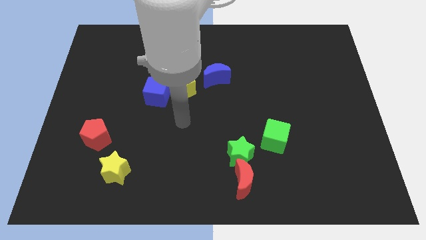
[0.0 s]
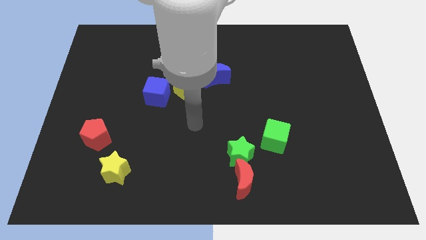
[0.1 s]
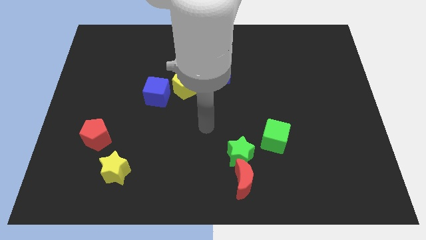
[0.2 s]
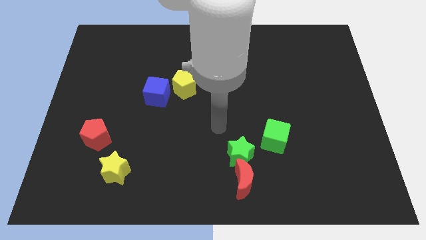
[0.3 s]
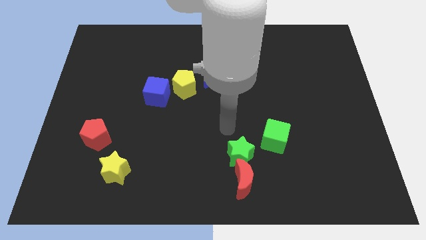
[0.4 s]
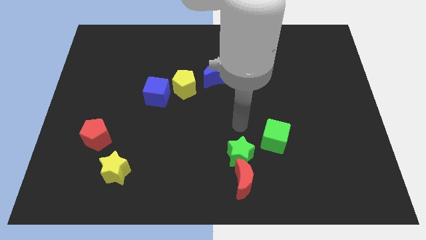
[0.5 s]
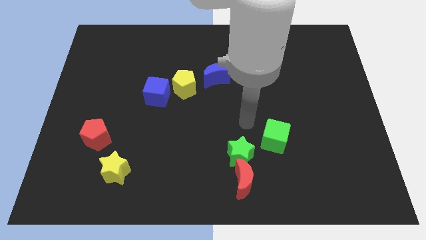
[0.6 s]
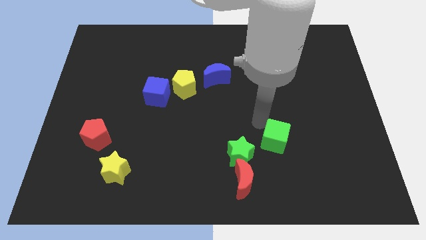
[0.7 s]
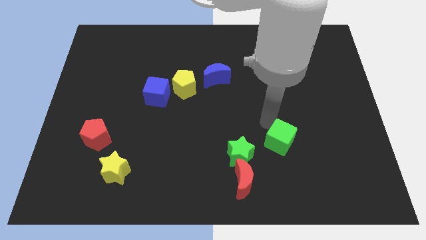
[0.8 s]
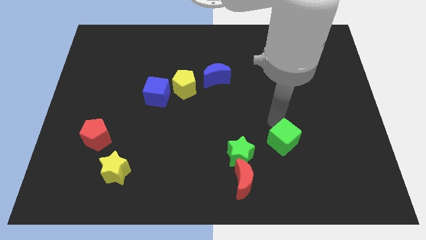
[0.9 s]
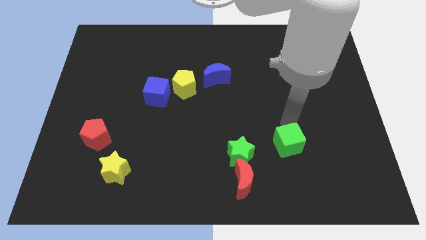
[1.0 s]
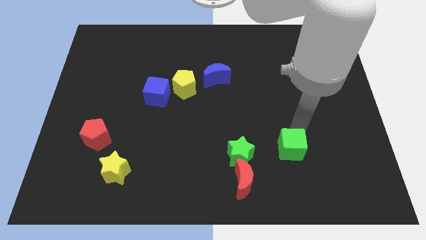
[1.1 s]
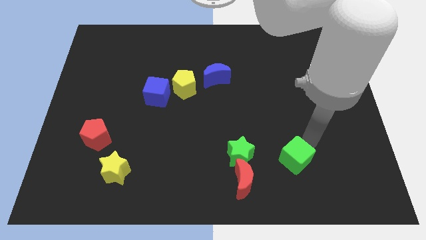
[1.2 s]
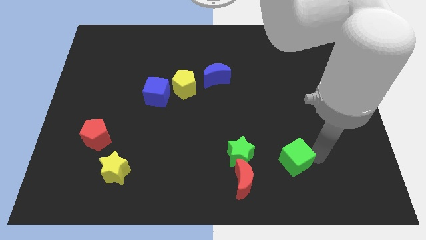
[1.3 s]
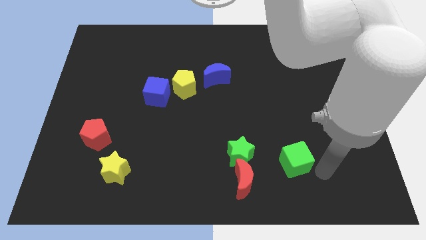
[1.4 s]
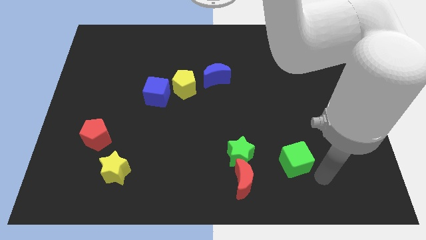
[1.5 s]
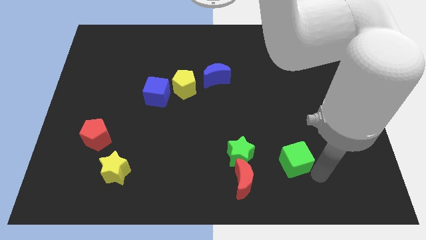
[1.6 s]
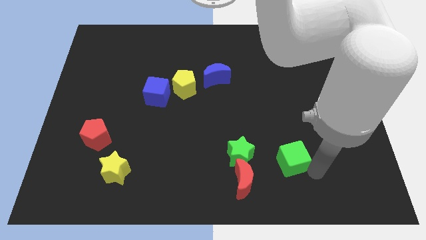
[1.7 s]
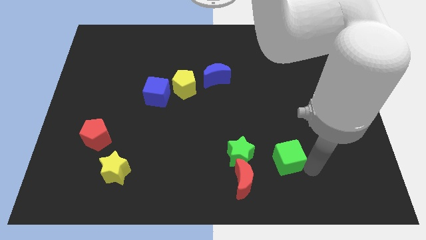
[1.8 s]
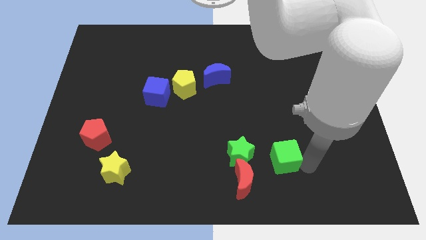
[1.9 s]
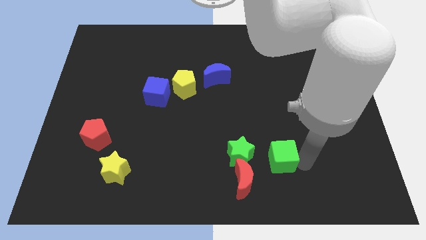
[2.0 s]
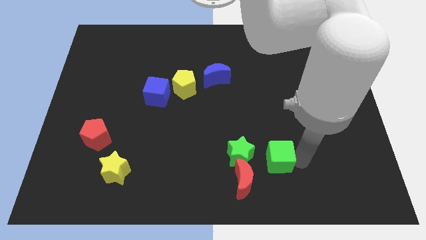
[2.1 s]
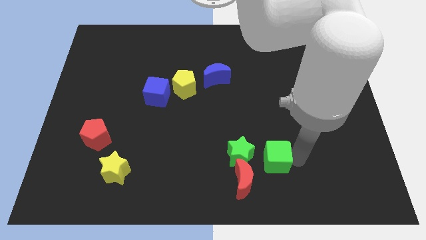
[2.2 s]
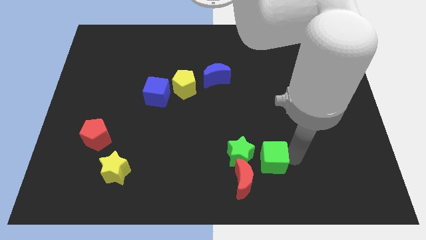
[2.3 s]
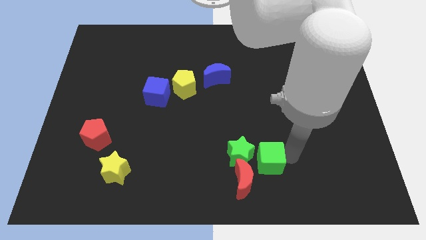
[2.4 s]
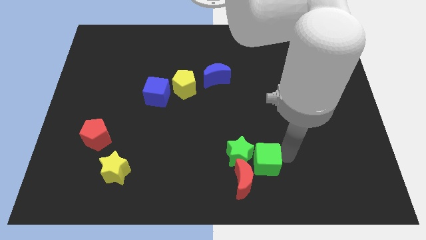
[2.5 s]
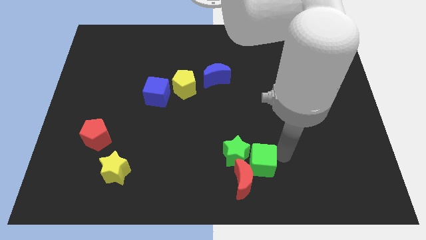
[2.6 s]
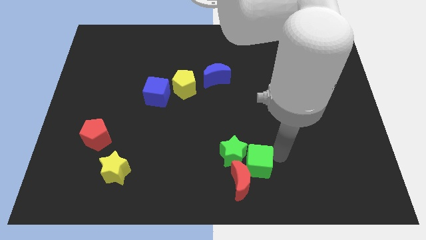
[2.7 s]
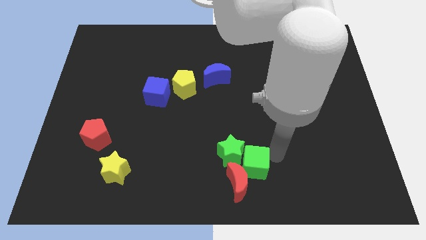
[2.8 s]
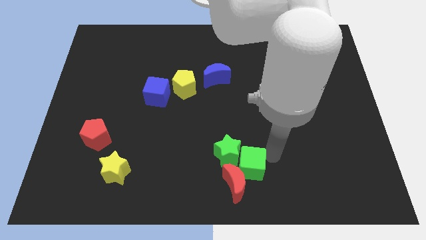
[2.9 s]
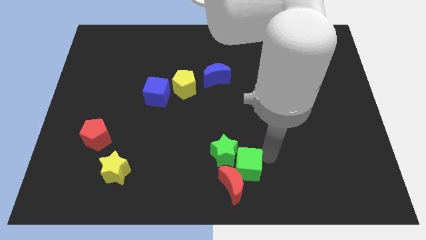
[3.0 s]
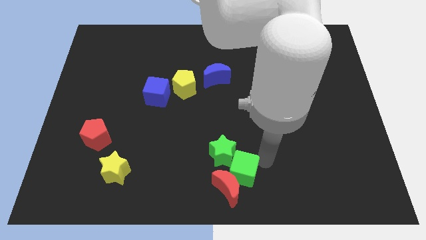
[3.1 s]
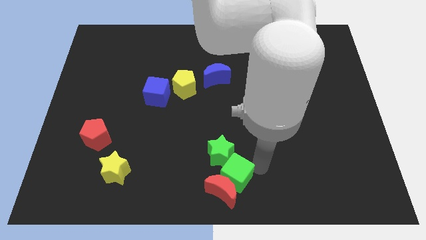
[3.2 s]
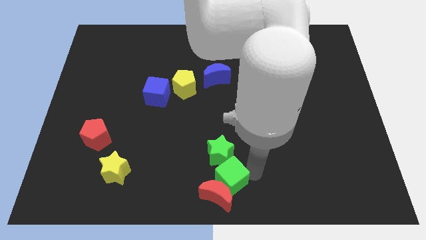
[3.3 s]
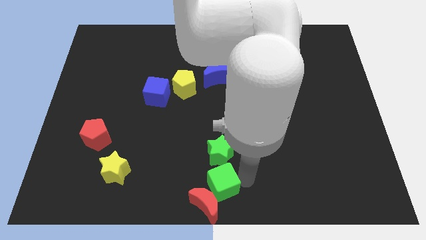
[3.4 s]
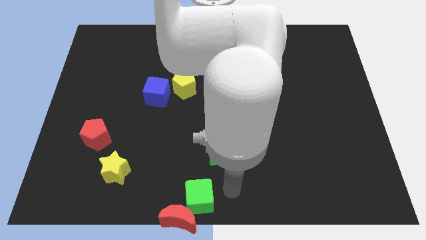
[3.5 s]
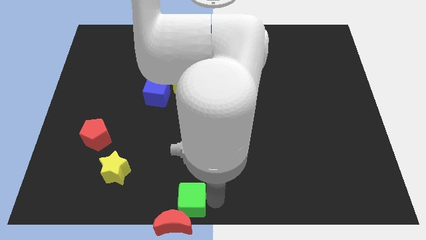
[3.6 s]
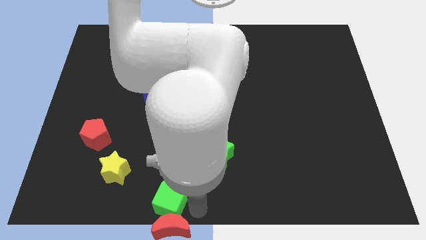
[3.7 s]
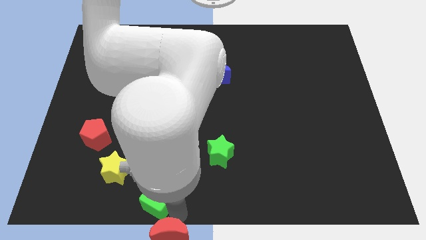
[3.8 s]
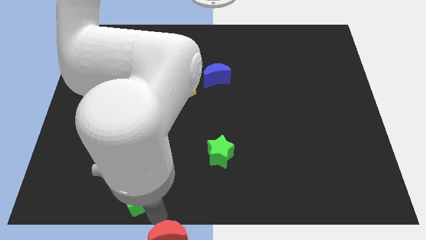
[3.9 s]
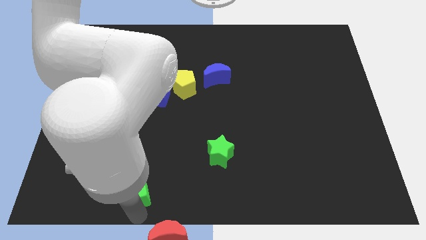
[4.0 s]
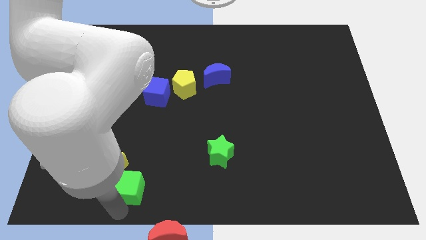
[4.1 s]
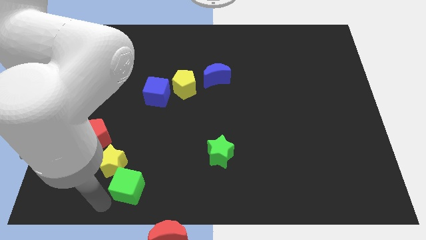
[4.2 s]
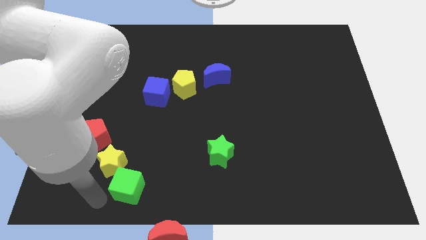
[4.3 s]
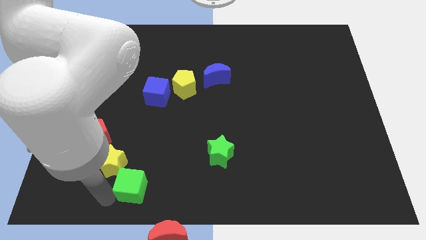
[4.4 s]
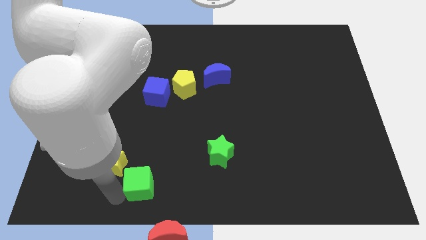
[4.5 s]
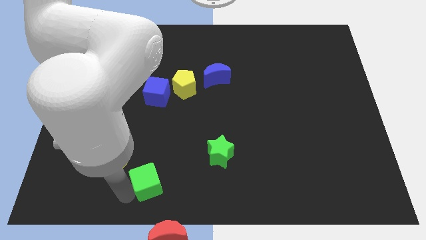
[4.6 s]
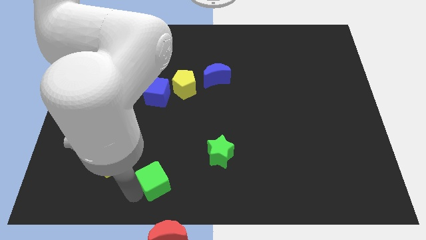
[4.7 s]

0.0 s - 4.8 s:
slightly push the green cube to the left

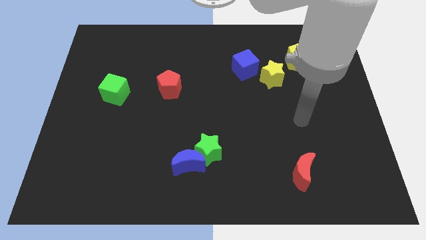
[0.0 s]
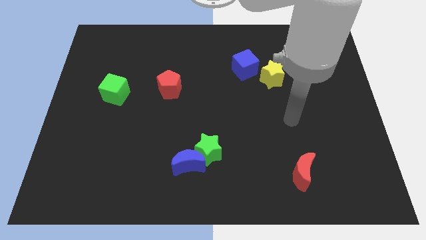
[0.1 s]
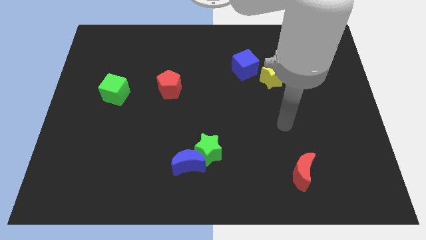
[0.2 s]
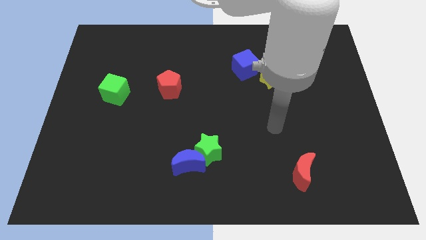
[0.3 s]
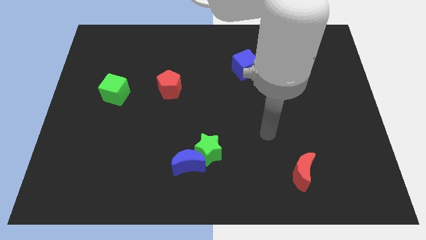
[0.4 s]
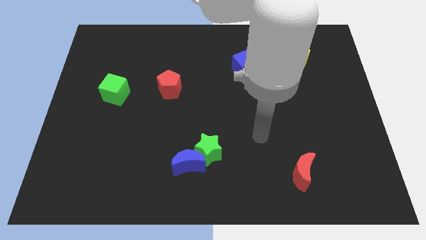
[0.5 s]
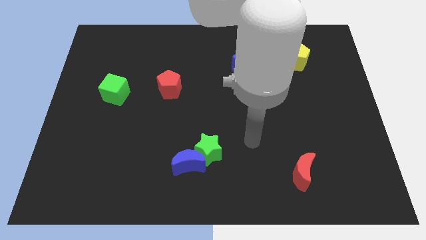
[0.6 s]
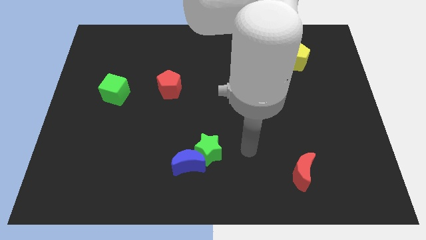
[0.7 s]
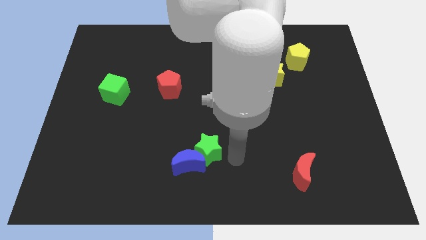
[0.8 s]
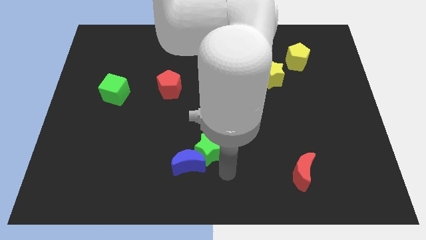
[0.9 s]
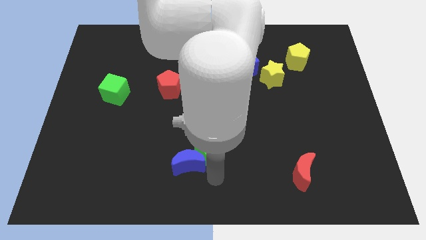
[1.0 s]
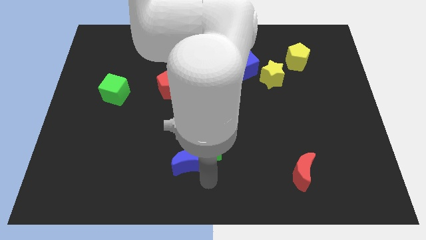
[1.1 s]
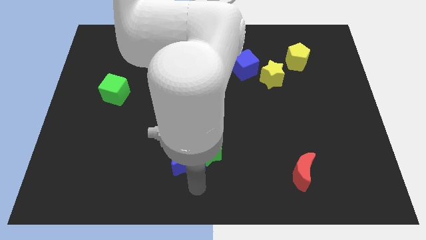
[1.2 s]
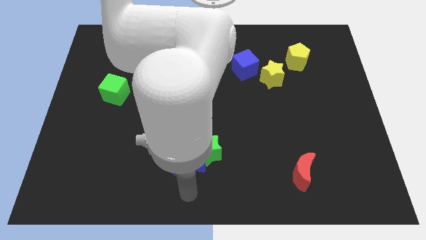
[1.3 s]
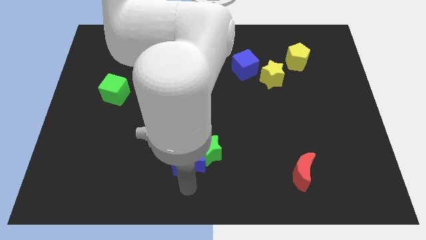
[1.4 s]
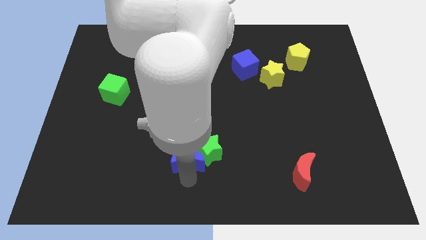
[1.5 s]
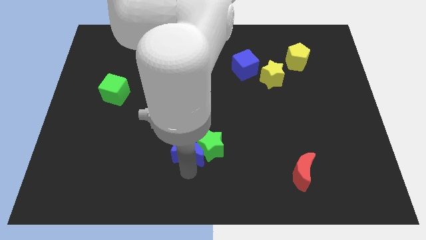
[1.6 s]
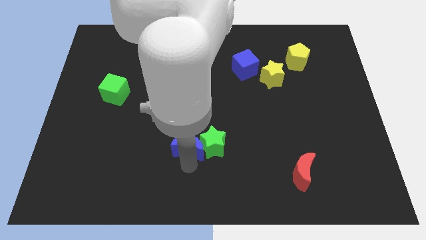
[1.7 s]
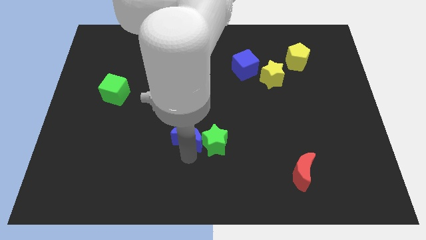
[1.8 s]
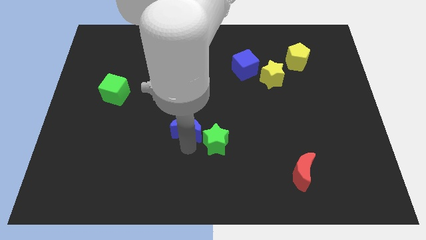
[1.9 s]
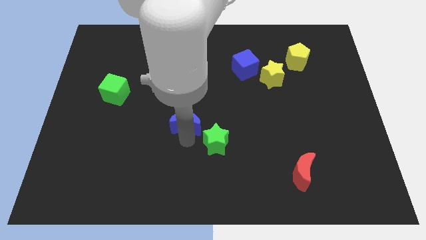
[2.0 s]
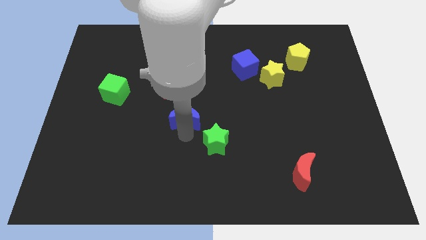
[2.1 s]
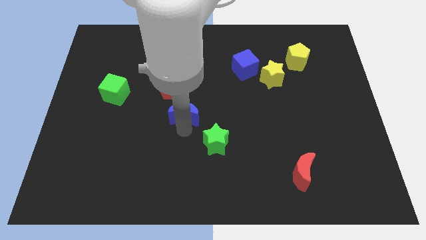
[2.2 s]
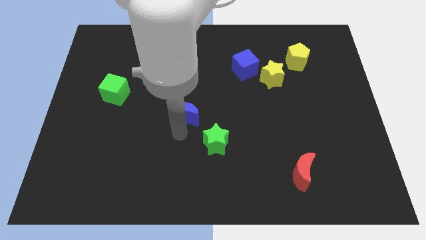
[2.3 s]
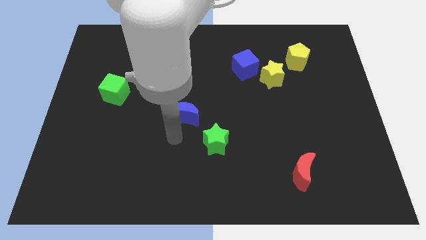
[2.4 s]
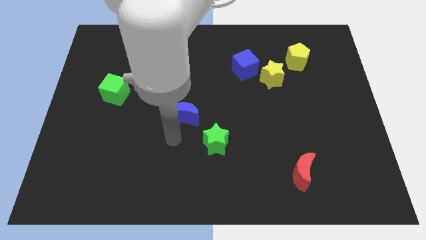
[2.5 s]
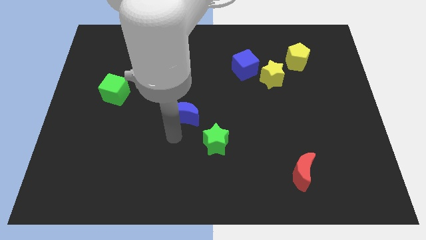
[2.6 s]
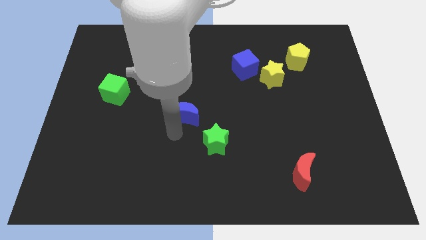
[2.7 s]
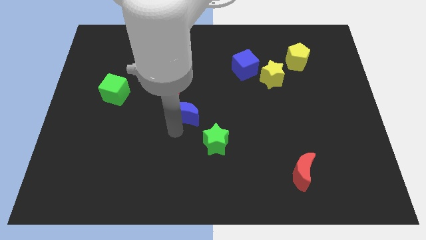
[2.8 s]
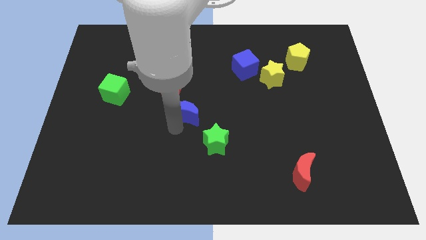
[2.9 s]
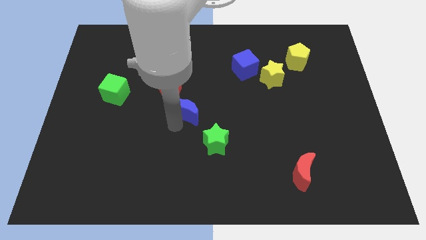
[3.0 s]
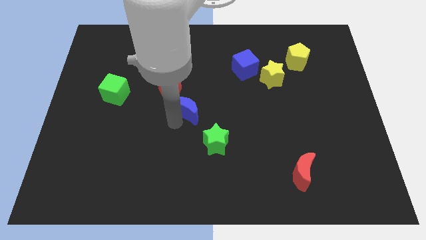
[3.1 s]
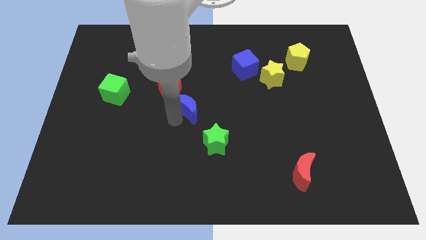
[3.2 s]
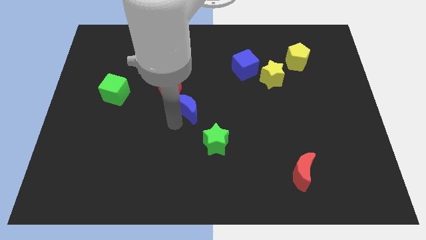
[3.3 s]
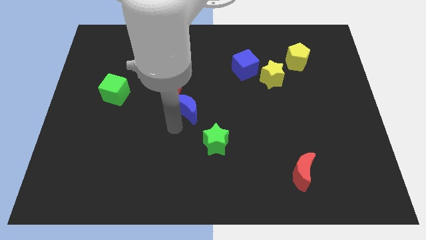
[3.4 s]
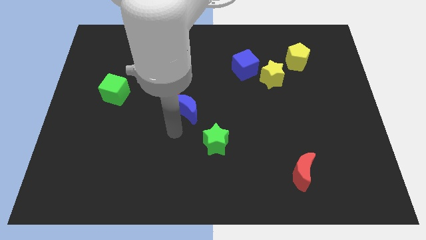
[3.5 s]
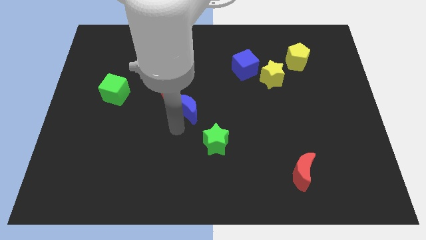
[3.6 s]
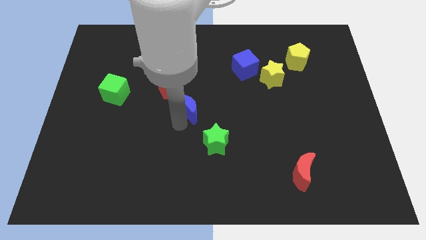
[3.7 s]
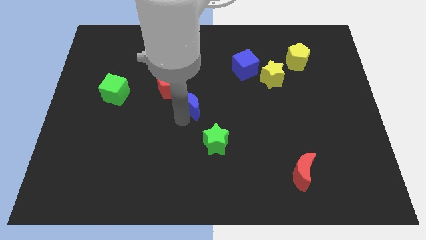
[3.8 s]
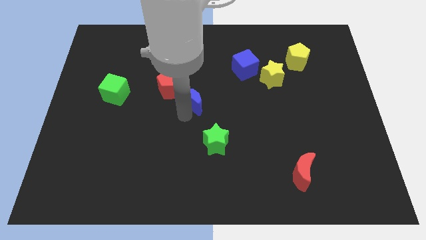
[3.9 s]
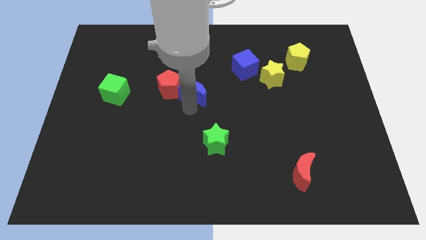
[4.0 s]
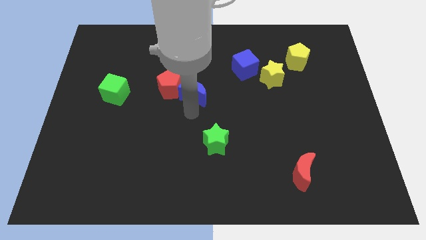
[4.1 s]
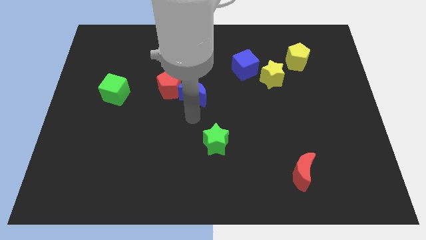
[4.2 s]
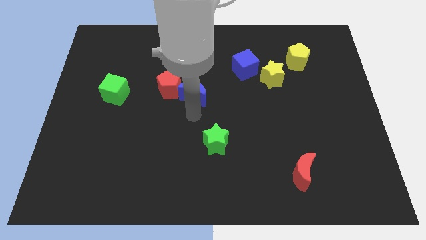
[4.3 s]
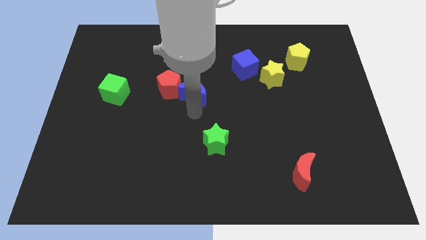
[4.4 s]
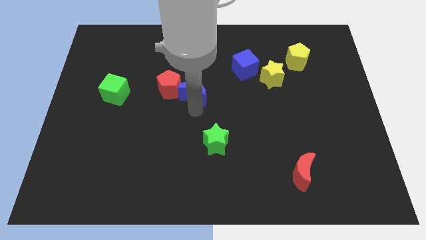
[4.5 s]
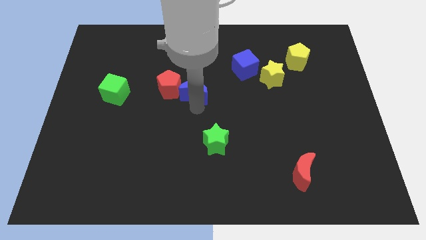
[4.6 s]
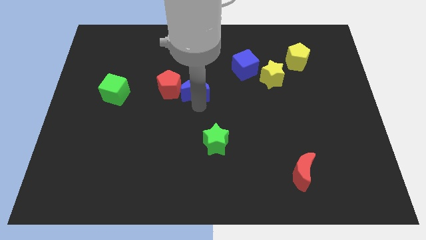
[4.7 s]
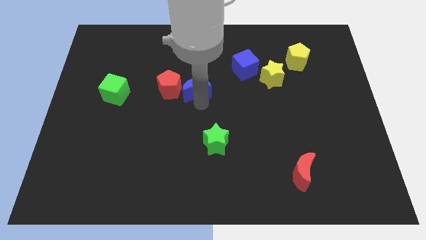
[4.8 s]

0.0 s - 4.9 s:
move the blue moon up
